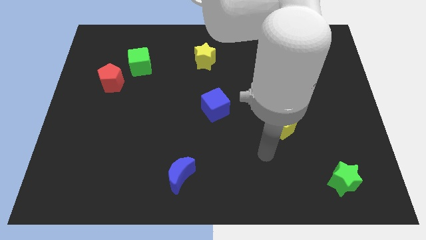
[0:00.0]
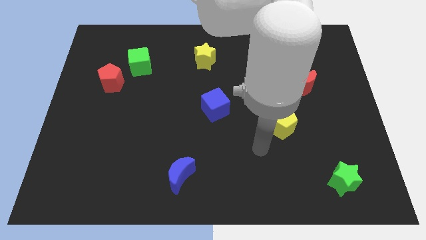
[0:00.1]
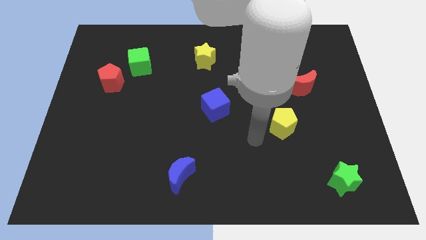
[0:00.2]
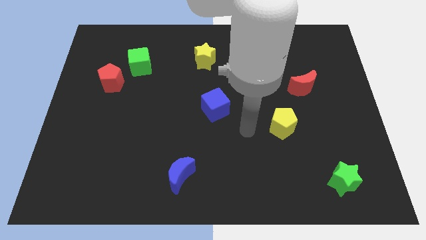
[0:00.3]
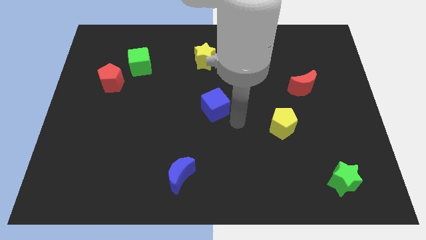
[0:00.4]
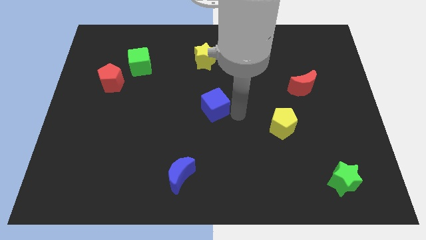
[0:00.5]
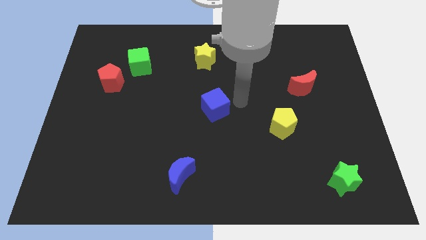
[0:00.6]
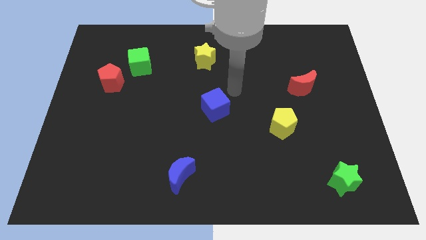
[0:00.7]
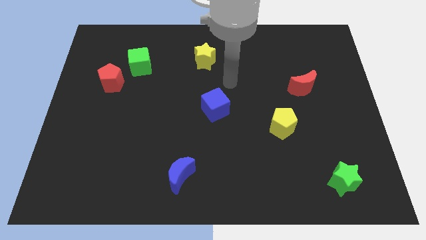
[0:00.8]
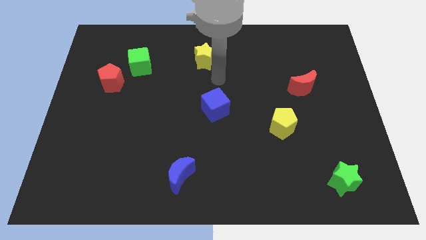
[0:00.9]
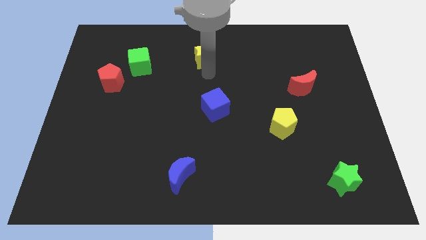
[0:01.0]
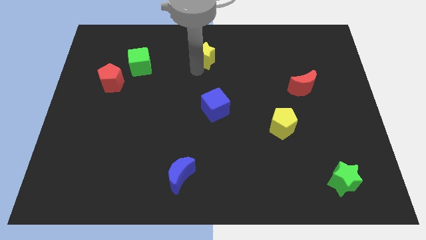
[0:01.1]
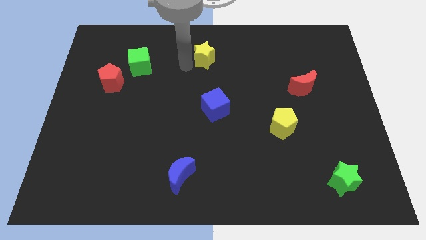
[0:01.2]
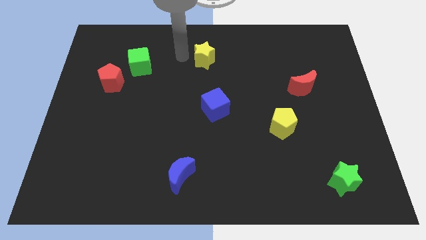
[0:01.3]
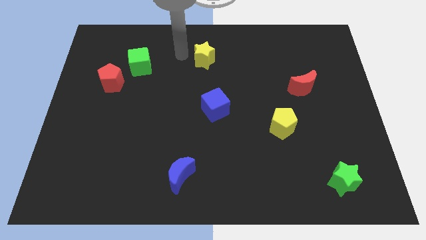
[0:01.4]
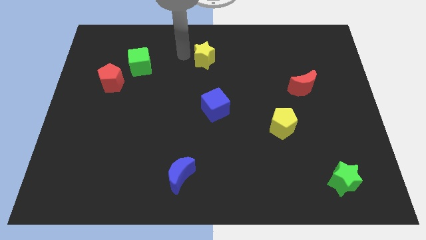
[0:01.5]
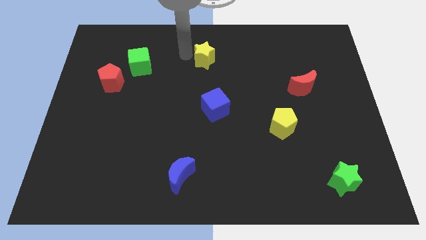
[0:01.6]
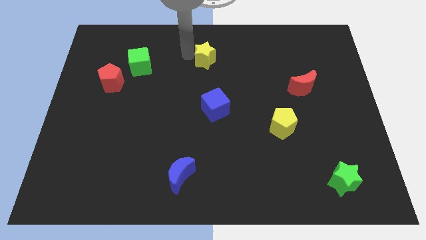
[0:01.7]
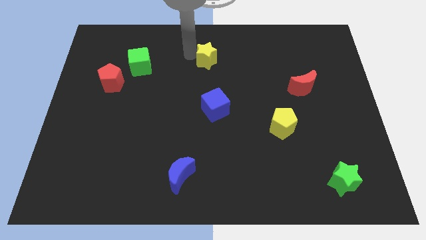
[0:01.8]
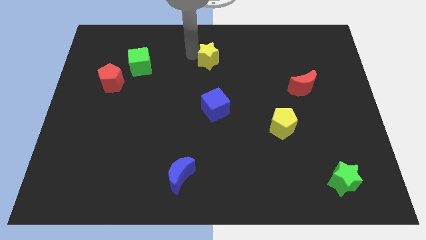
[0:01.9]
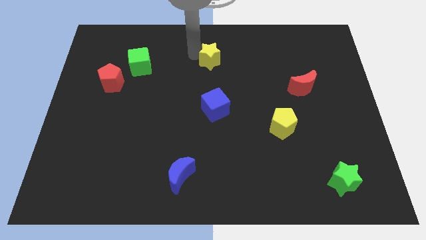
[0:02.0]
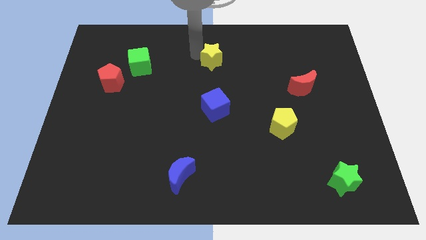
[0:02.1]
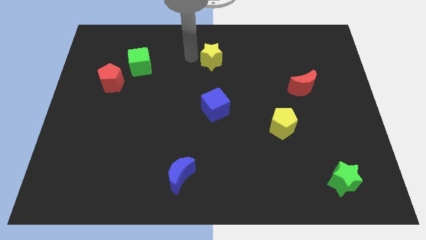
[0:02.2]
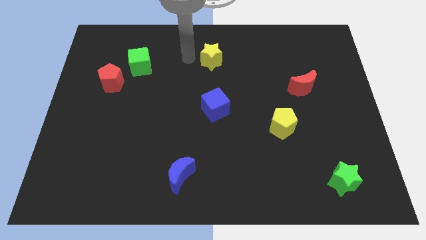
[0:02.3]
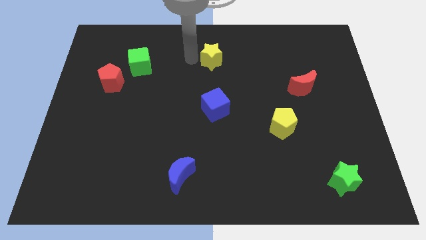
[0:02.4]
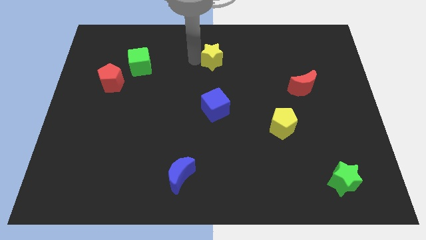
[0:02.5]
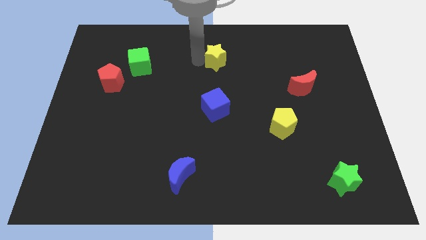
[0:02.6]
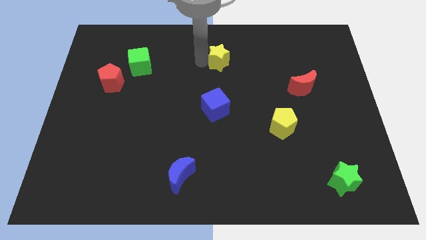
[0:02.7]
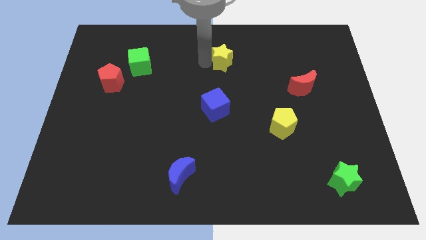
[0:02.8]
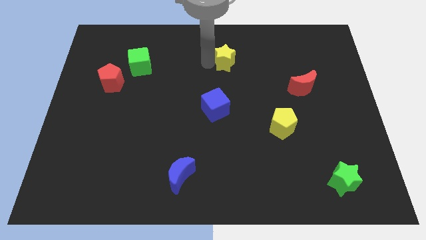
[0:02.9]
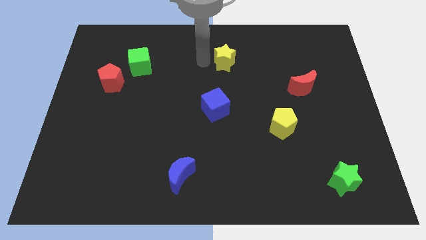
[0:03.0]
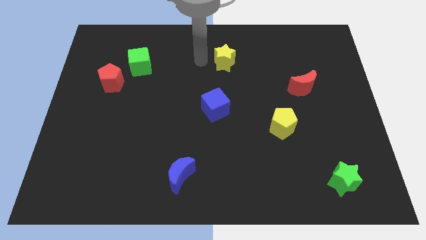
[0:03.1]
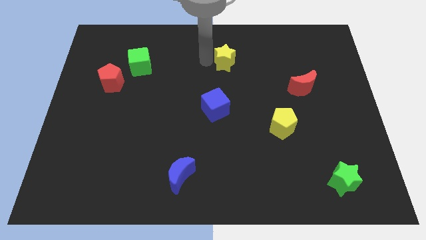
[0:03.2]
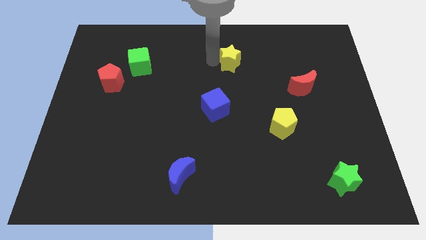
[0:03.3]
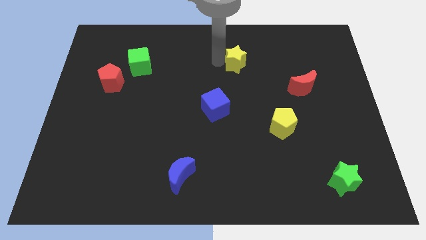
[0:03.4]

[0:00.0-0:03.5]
slide the yellow star slightly to the right

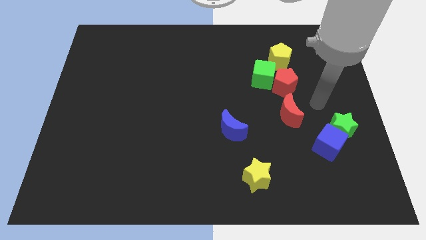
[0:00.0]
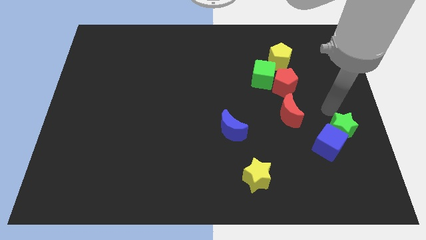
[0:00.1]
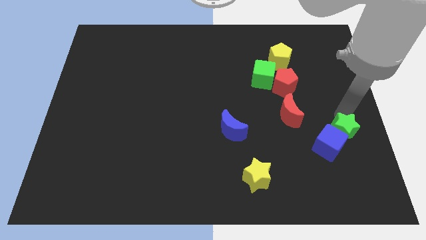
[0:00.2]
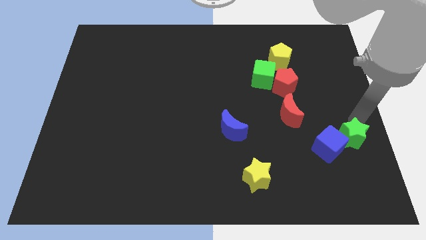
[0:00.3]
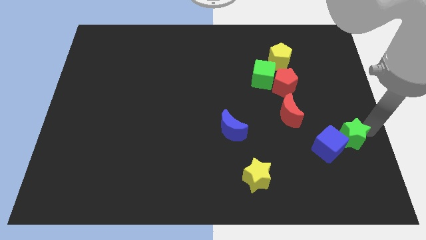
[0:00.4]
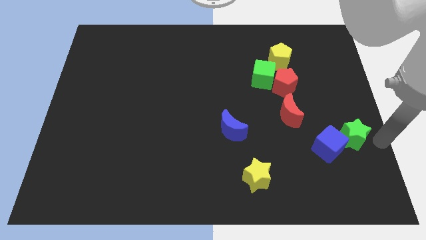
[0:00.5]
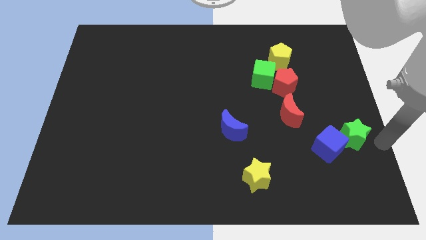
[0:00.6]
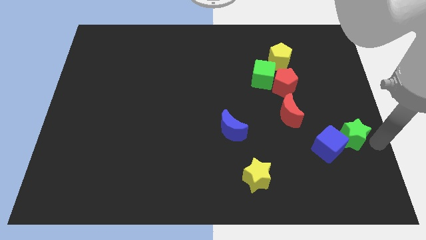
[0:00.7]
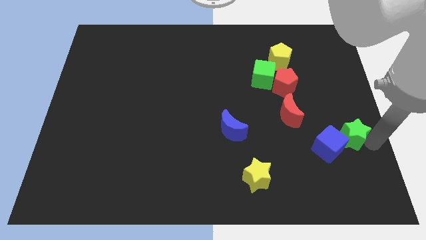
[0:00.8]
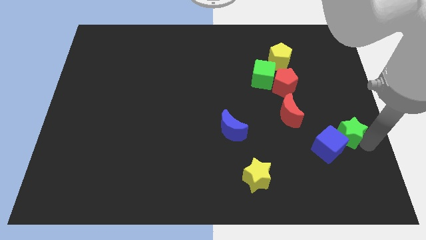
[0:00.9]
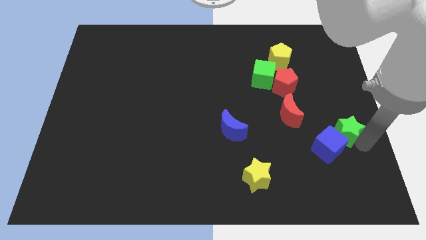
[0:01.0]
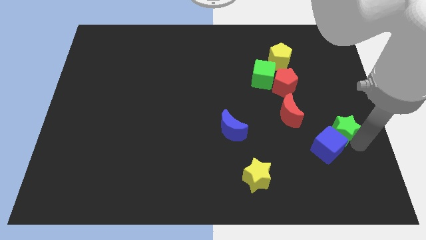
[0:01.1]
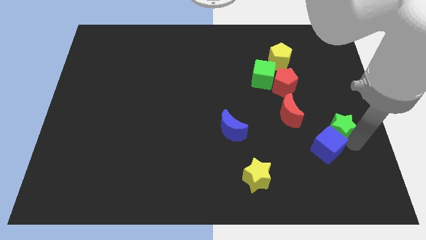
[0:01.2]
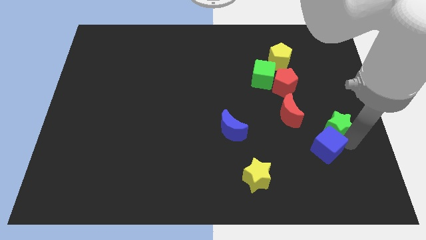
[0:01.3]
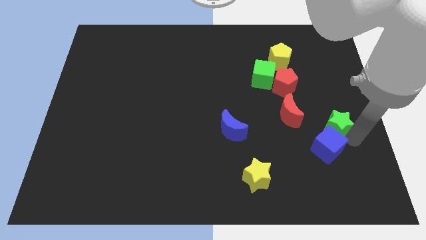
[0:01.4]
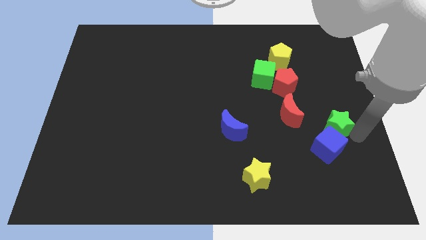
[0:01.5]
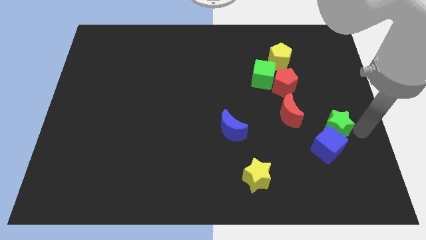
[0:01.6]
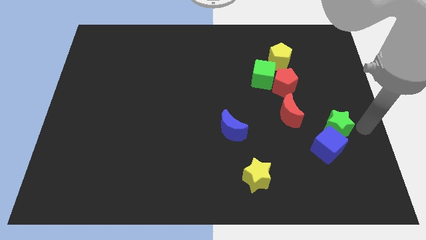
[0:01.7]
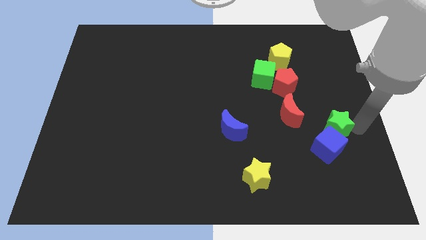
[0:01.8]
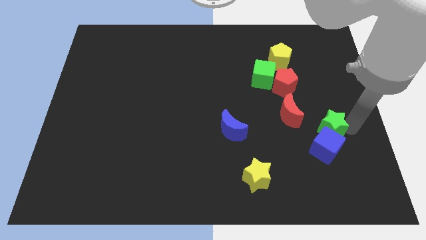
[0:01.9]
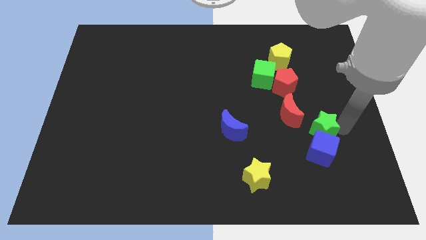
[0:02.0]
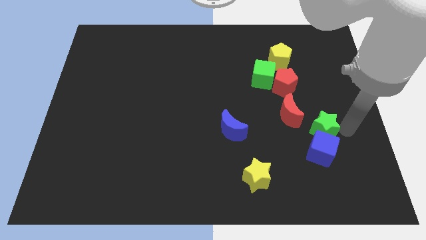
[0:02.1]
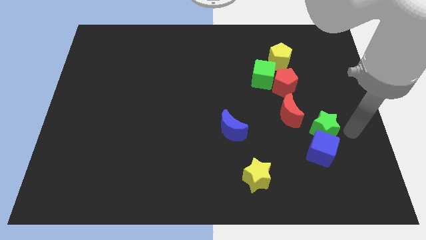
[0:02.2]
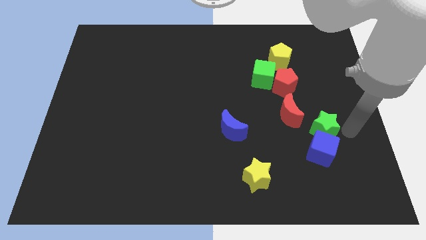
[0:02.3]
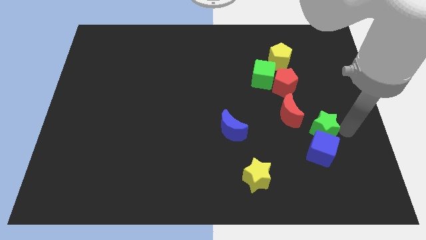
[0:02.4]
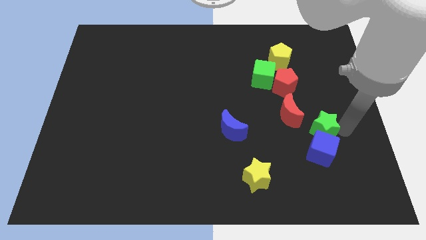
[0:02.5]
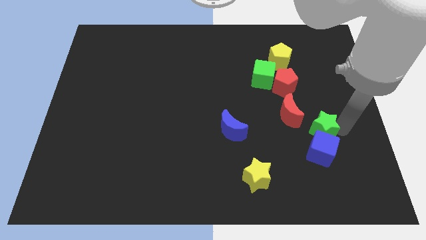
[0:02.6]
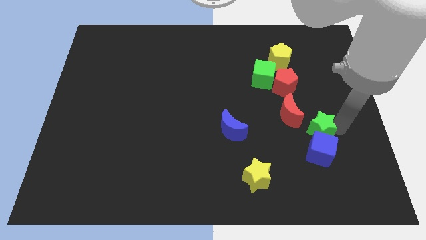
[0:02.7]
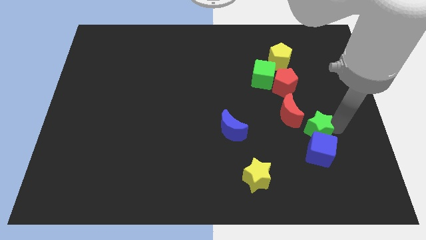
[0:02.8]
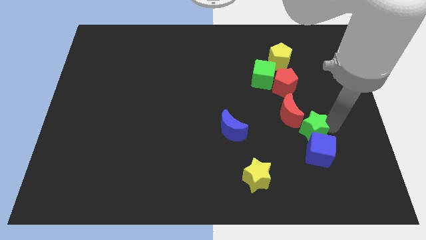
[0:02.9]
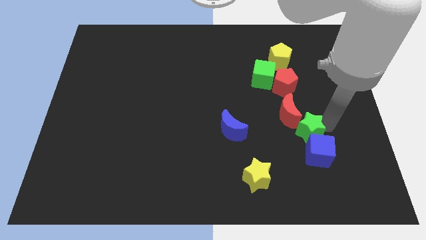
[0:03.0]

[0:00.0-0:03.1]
push the green star a bit to the left

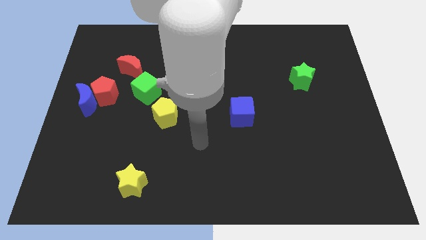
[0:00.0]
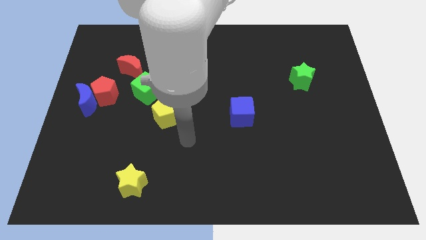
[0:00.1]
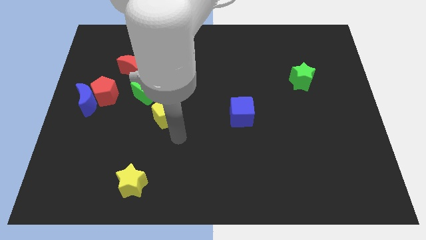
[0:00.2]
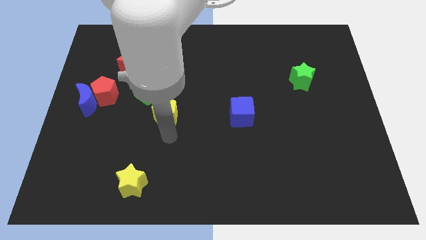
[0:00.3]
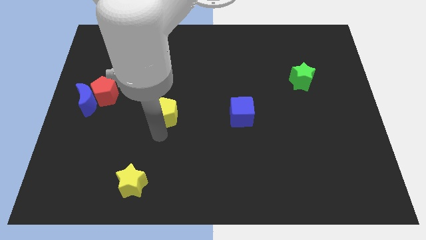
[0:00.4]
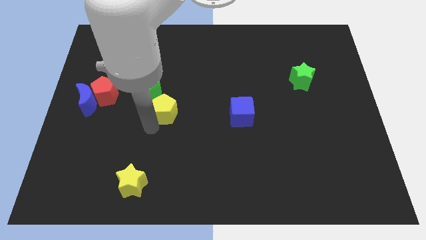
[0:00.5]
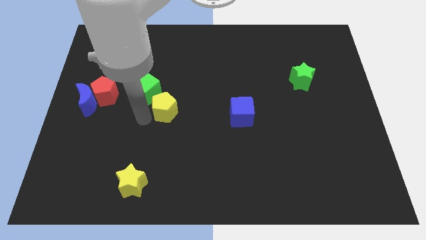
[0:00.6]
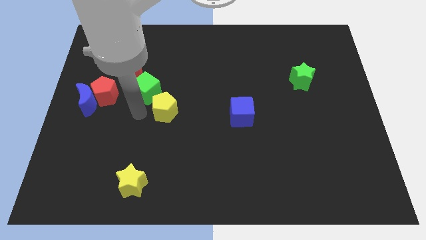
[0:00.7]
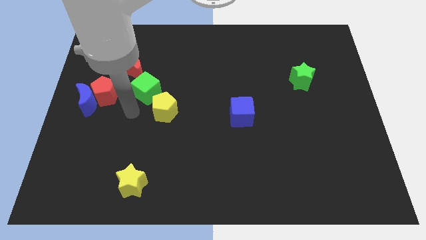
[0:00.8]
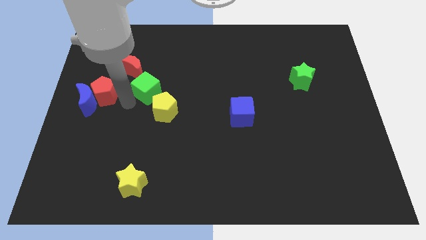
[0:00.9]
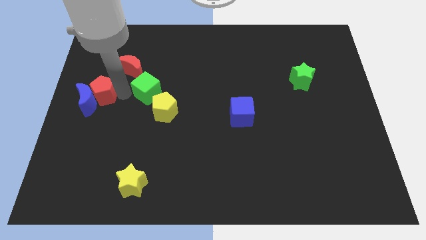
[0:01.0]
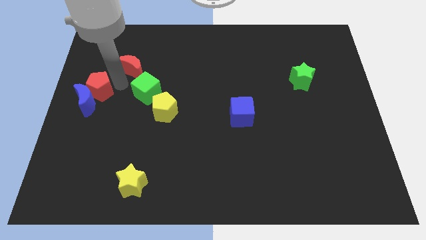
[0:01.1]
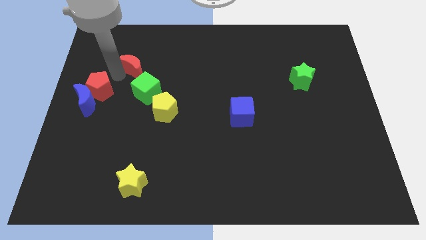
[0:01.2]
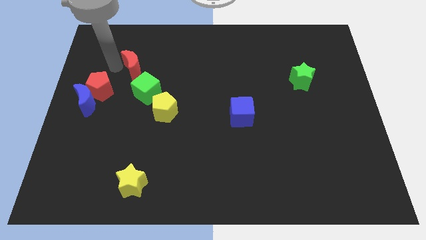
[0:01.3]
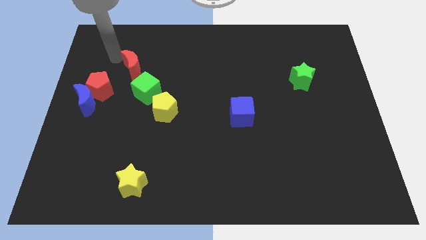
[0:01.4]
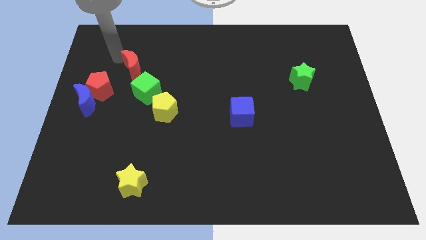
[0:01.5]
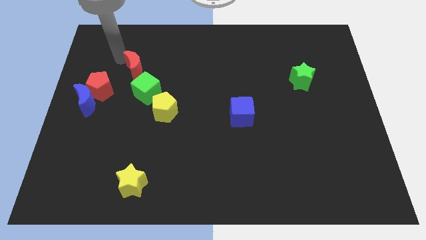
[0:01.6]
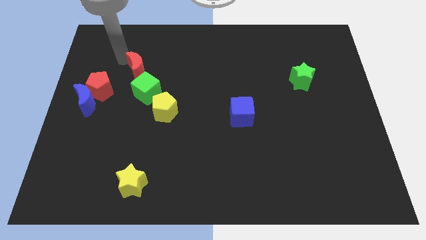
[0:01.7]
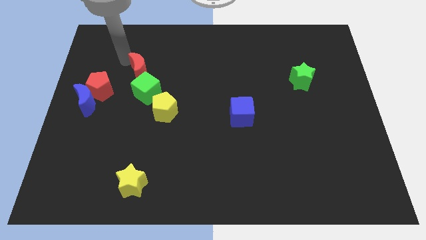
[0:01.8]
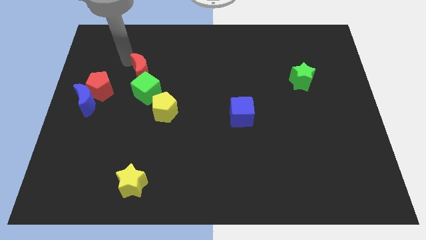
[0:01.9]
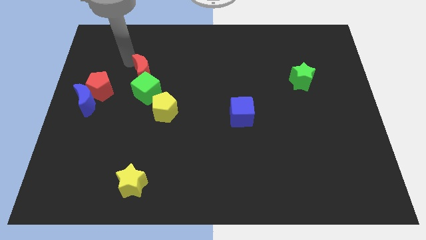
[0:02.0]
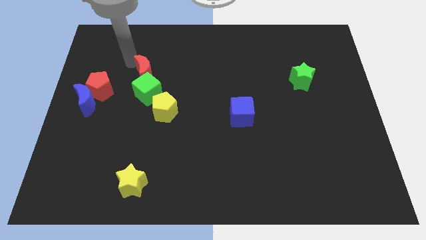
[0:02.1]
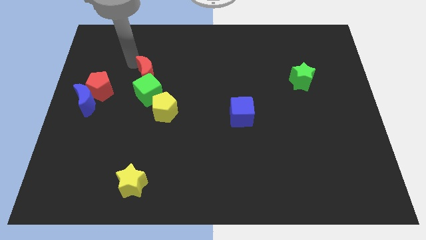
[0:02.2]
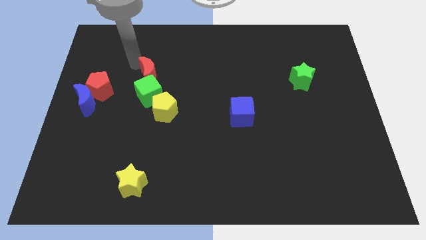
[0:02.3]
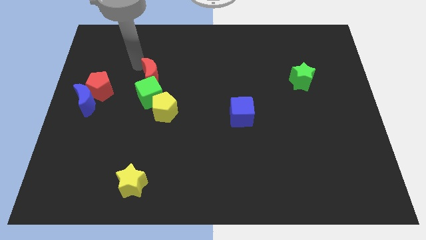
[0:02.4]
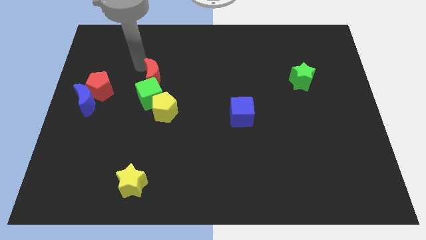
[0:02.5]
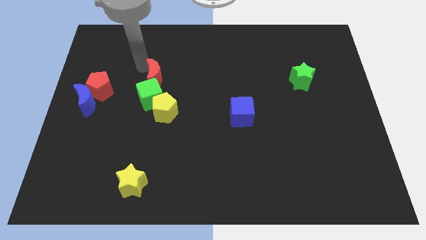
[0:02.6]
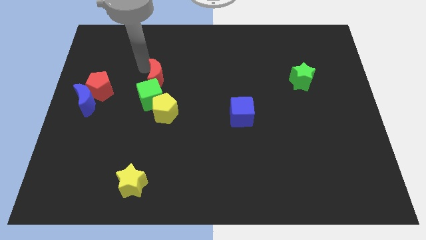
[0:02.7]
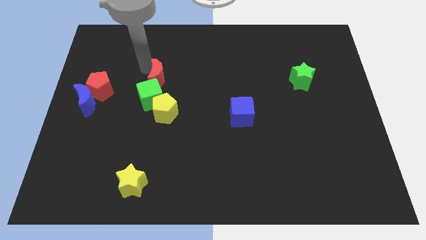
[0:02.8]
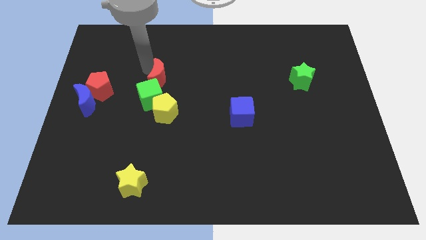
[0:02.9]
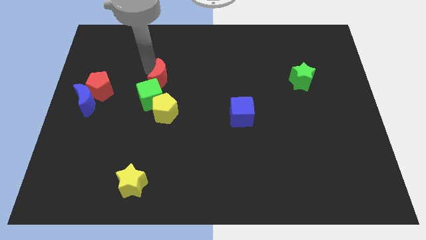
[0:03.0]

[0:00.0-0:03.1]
slide the red moon downwards and then to the right a bit
